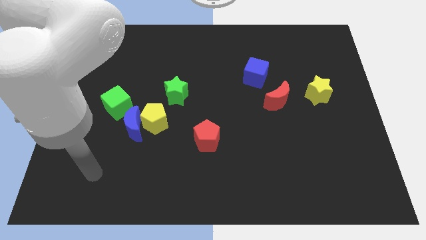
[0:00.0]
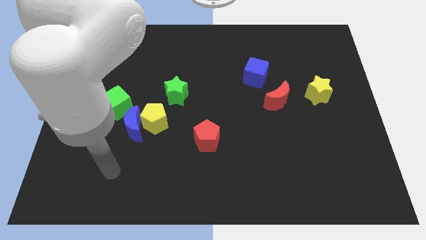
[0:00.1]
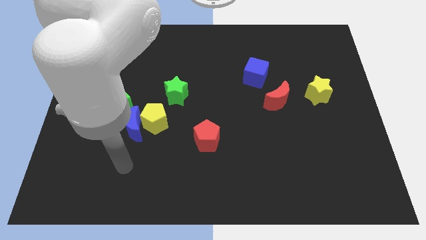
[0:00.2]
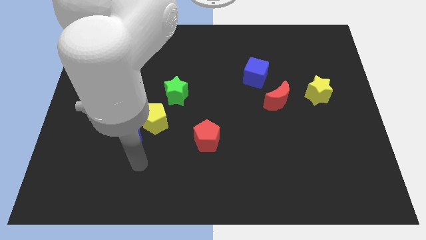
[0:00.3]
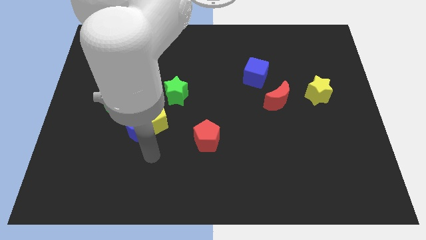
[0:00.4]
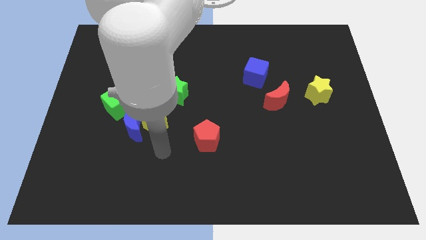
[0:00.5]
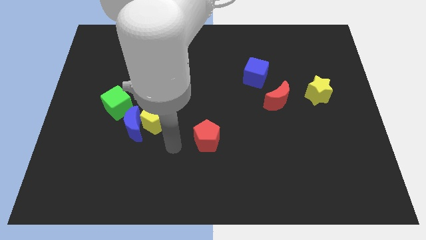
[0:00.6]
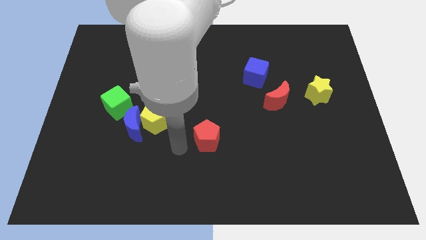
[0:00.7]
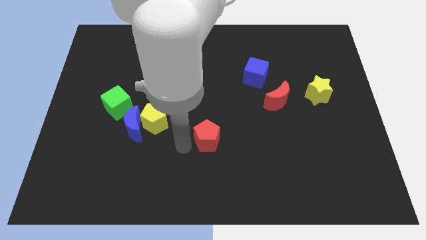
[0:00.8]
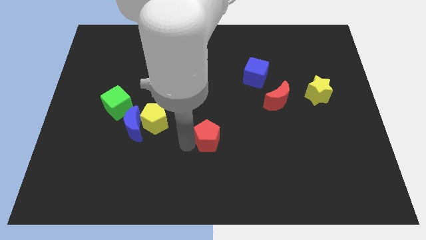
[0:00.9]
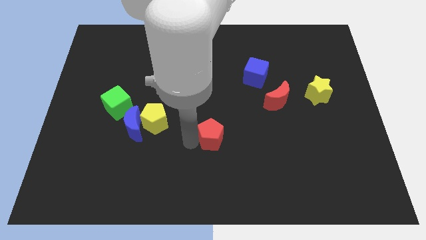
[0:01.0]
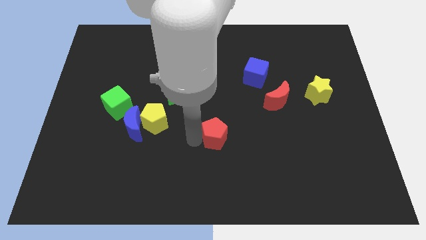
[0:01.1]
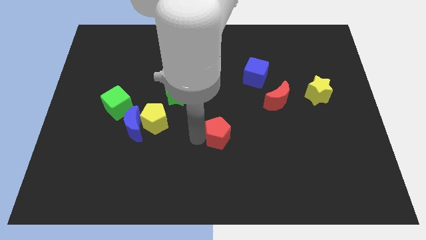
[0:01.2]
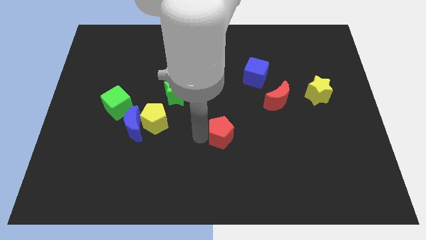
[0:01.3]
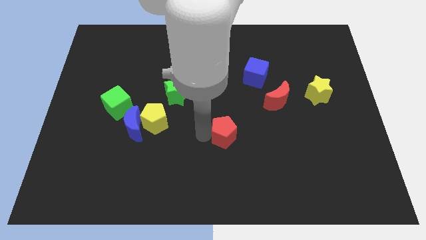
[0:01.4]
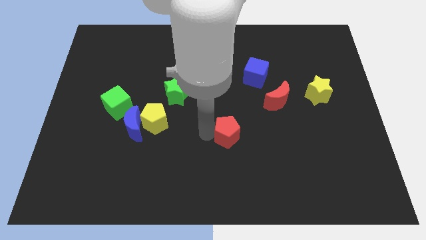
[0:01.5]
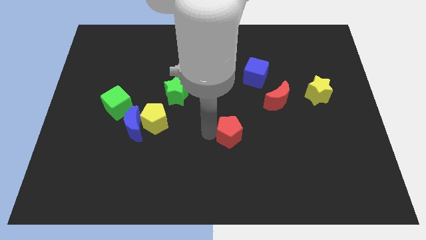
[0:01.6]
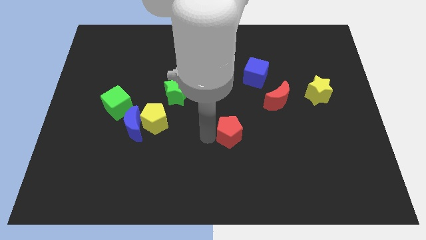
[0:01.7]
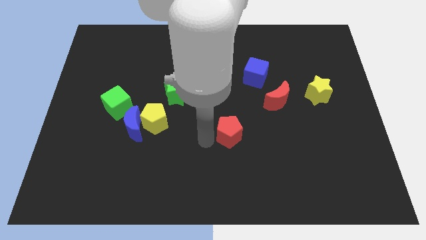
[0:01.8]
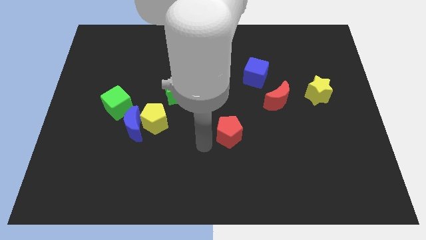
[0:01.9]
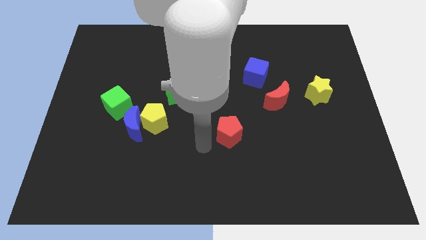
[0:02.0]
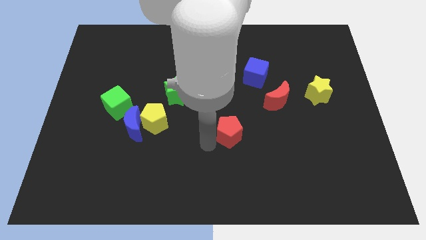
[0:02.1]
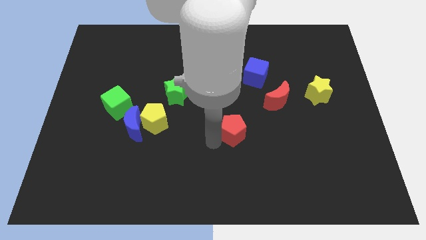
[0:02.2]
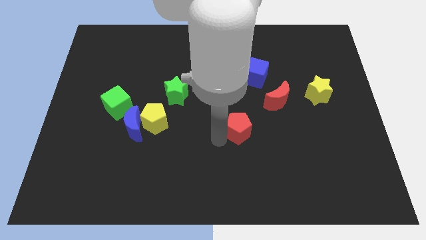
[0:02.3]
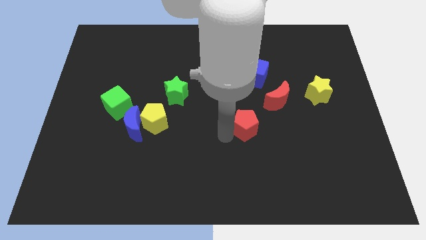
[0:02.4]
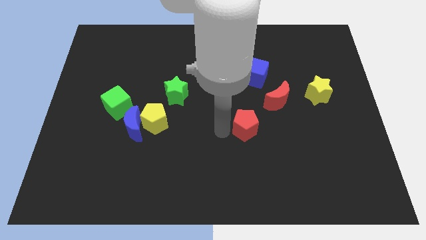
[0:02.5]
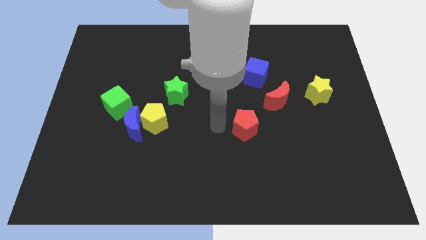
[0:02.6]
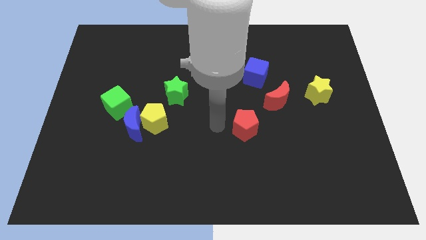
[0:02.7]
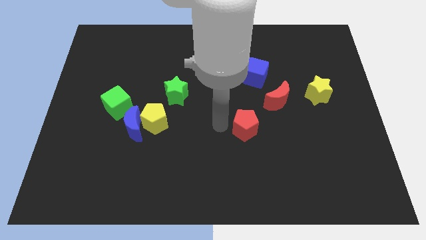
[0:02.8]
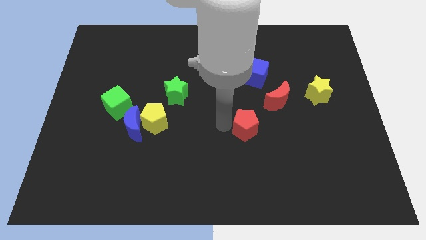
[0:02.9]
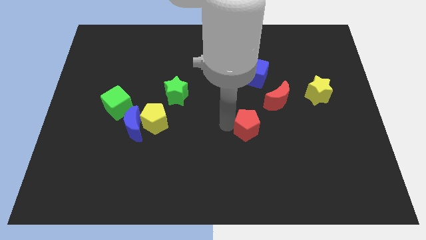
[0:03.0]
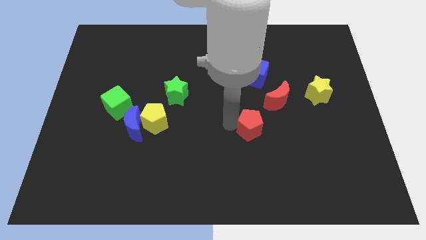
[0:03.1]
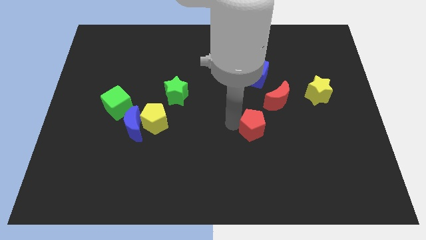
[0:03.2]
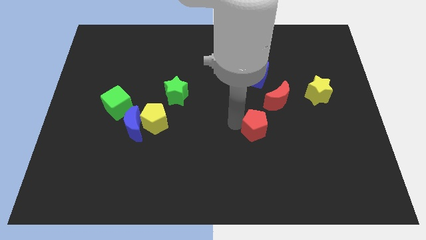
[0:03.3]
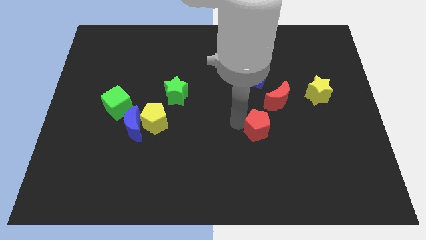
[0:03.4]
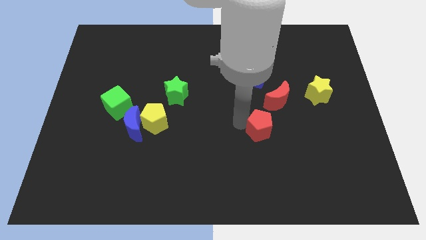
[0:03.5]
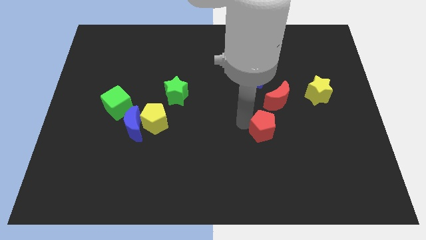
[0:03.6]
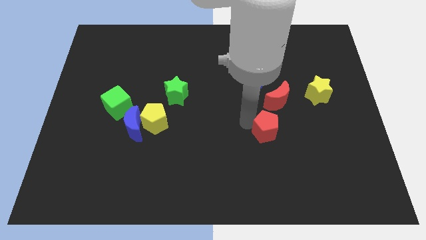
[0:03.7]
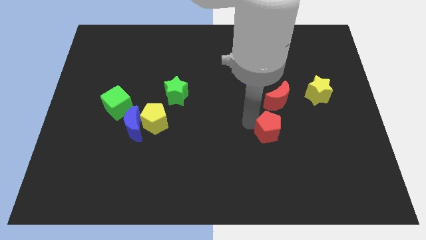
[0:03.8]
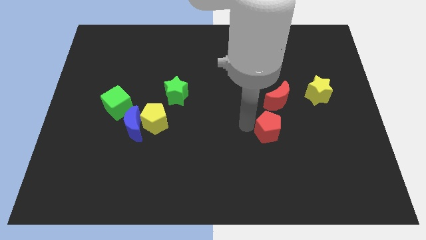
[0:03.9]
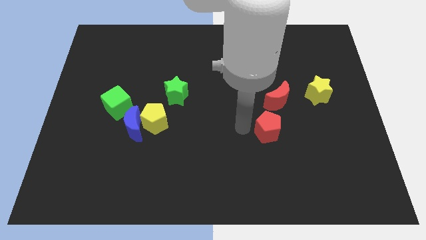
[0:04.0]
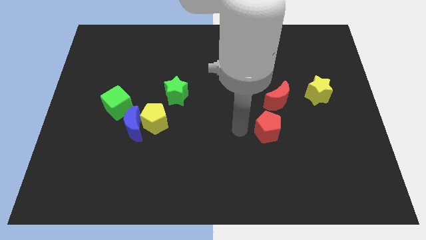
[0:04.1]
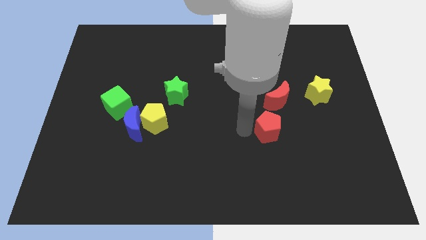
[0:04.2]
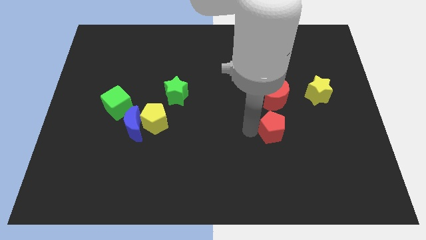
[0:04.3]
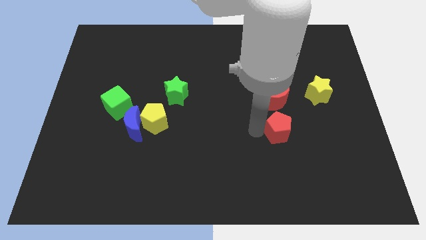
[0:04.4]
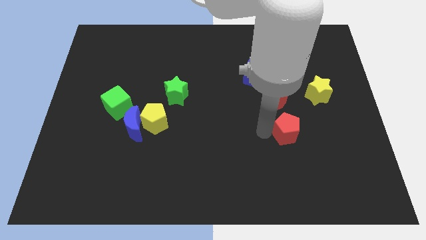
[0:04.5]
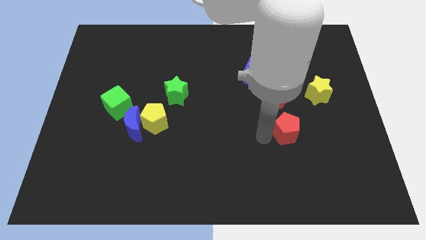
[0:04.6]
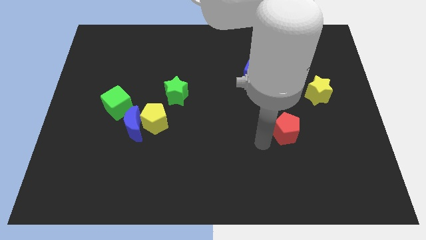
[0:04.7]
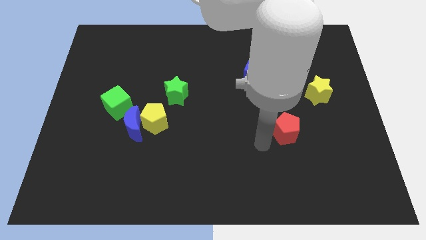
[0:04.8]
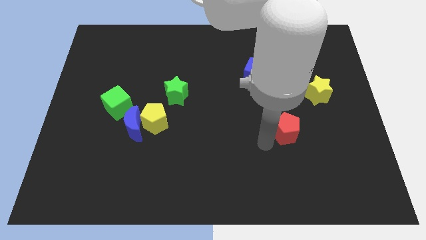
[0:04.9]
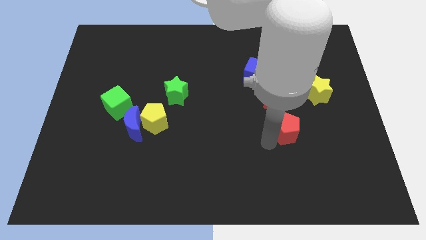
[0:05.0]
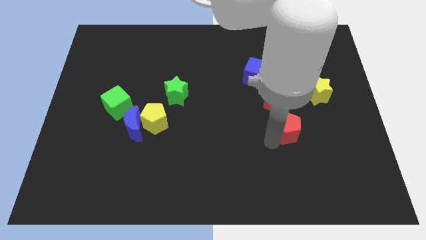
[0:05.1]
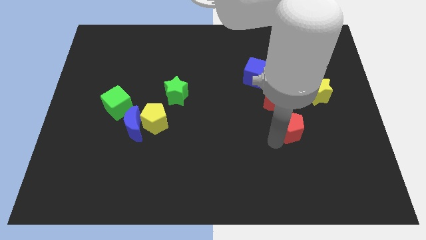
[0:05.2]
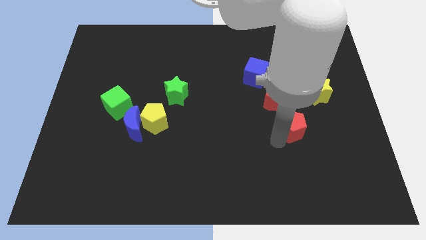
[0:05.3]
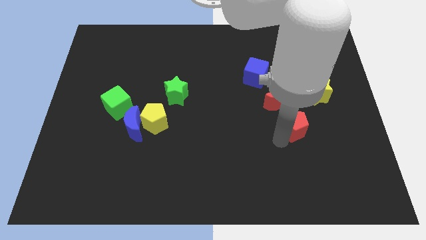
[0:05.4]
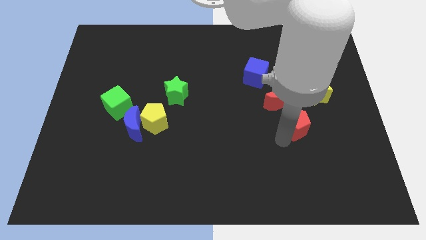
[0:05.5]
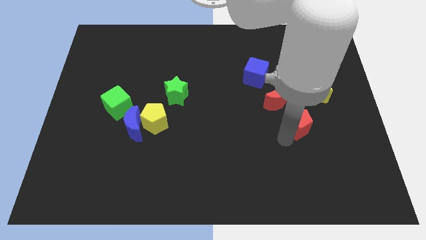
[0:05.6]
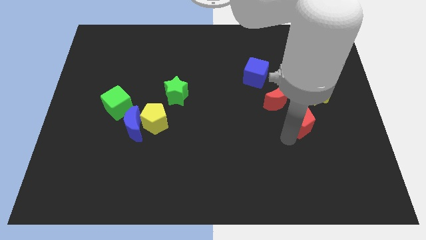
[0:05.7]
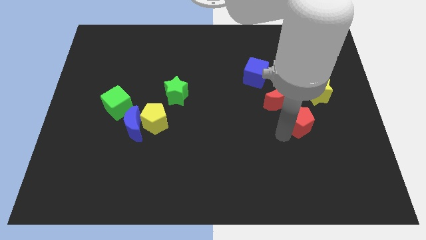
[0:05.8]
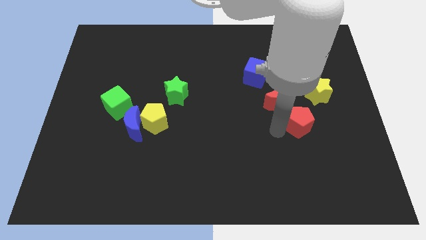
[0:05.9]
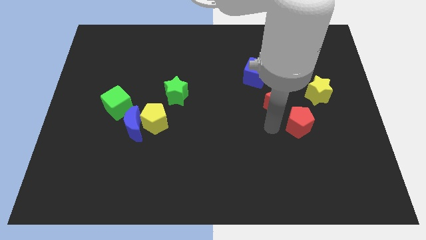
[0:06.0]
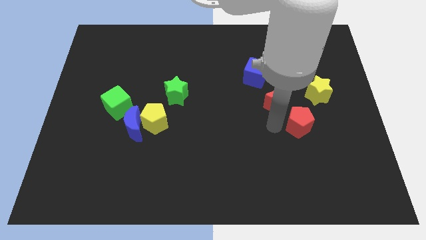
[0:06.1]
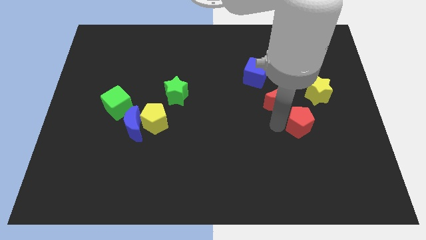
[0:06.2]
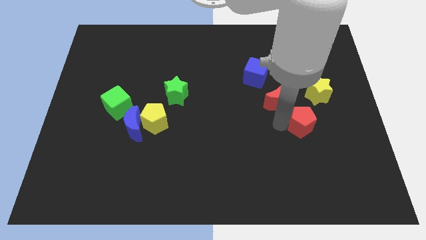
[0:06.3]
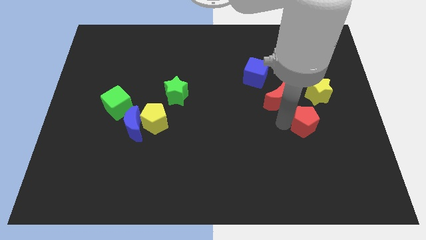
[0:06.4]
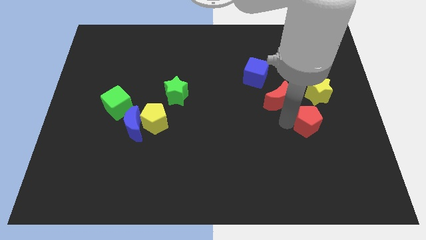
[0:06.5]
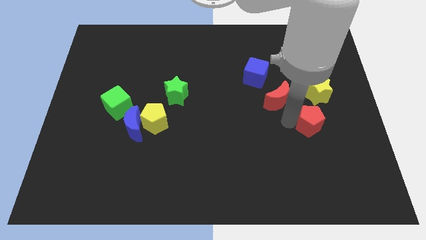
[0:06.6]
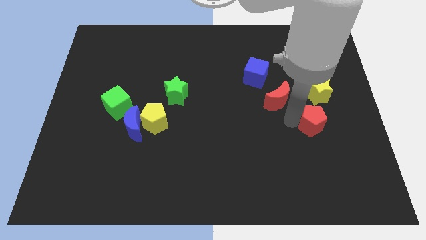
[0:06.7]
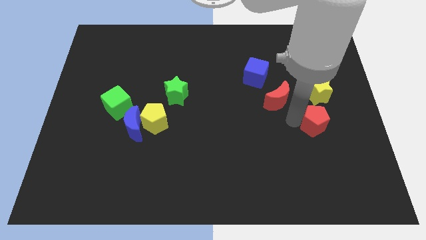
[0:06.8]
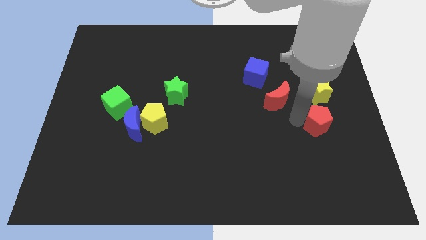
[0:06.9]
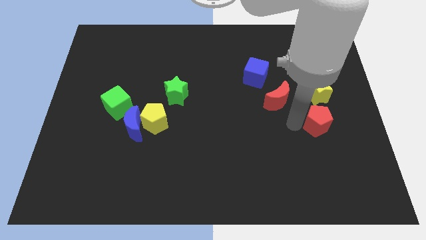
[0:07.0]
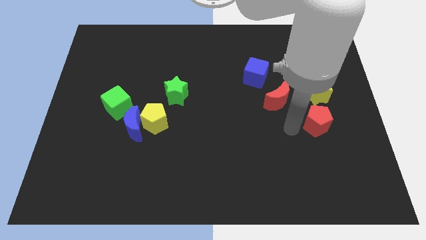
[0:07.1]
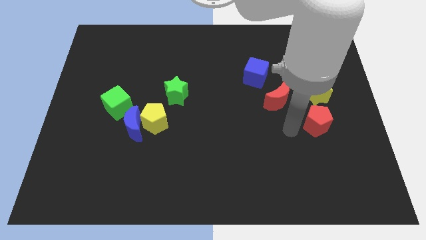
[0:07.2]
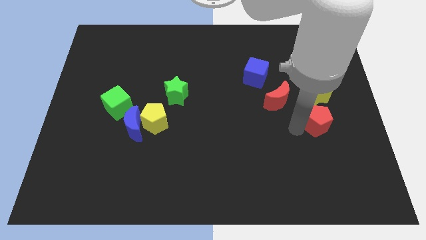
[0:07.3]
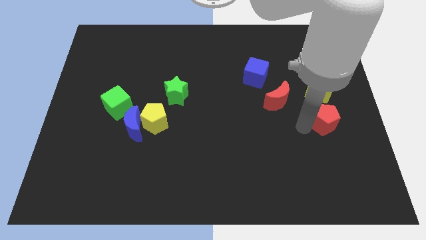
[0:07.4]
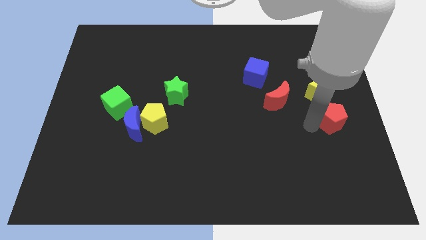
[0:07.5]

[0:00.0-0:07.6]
push the red pentagon to the right side of the board
